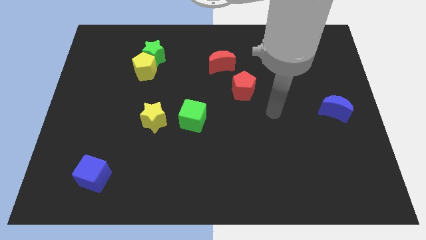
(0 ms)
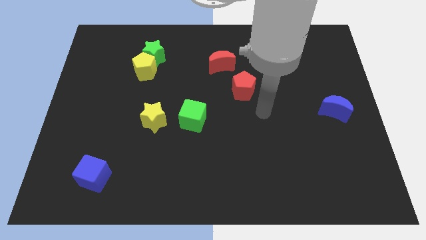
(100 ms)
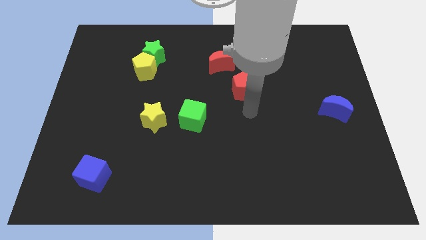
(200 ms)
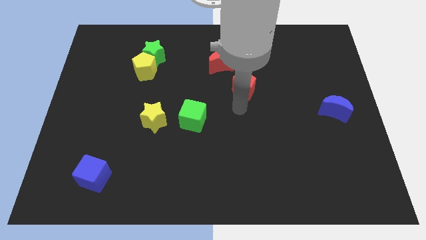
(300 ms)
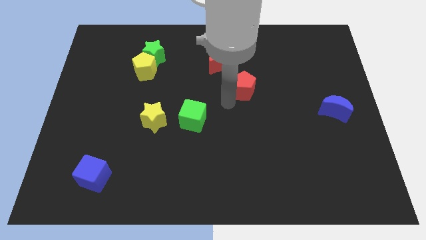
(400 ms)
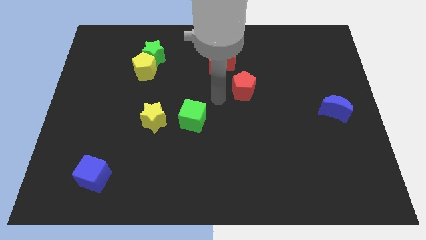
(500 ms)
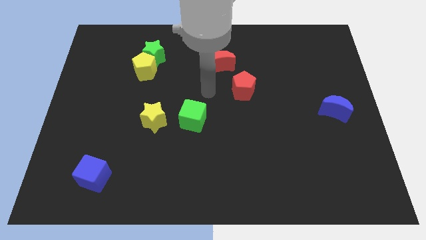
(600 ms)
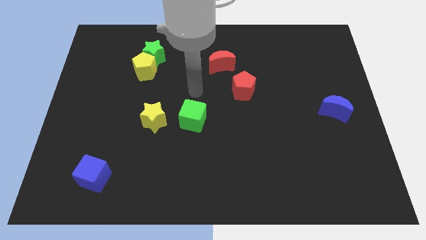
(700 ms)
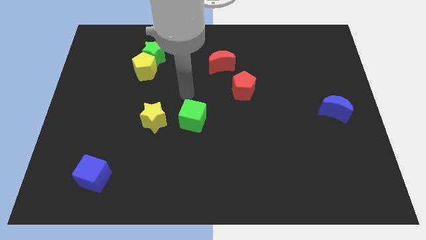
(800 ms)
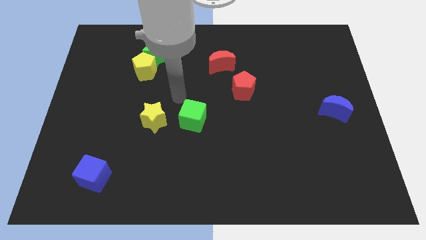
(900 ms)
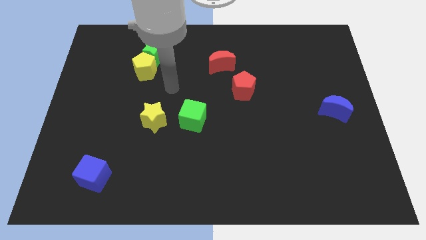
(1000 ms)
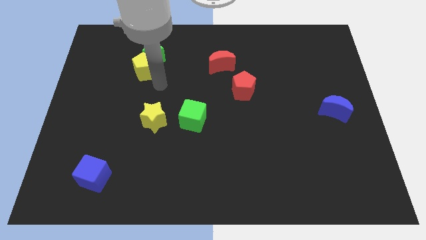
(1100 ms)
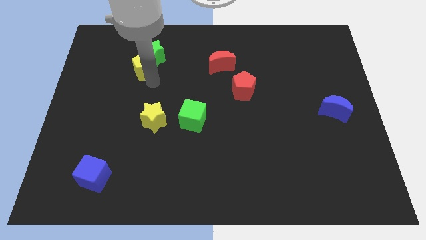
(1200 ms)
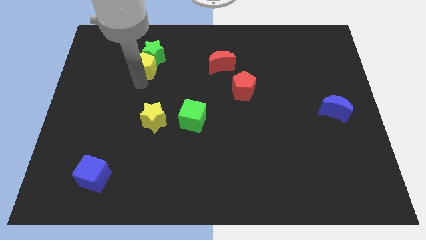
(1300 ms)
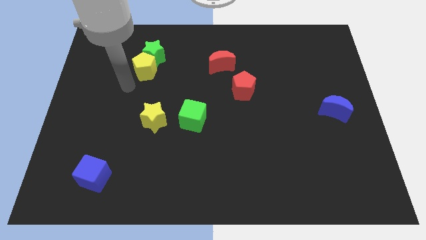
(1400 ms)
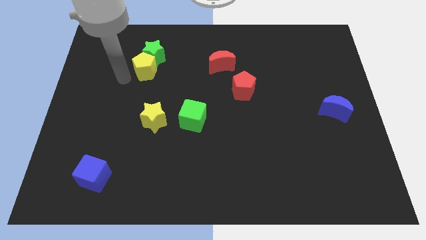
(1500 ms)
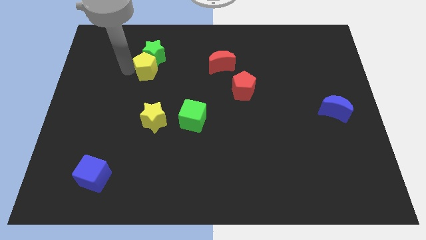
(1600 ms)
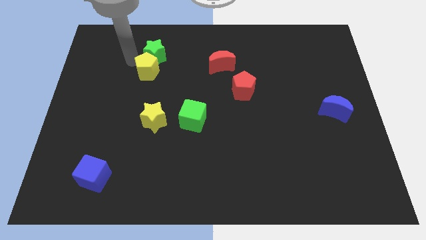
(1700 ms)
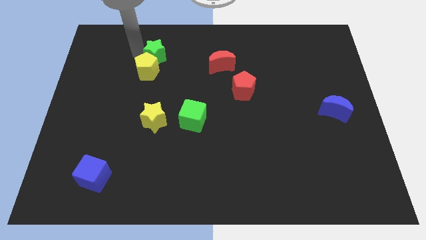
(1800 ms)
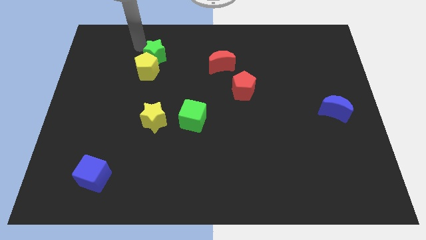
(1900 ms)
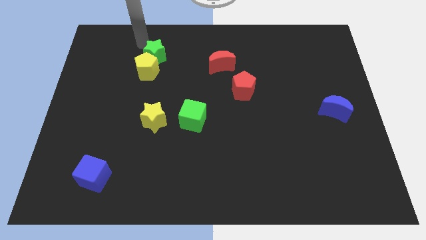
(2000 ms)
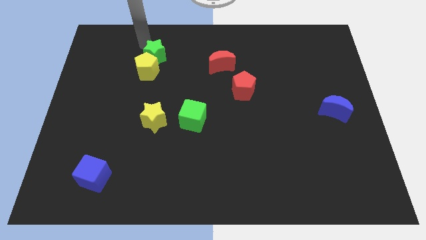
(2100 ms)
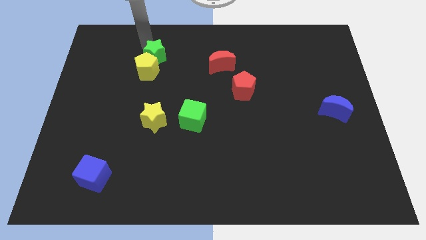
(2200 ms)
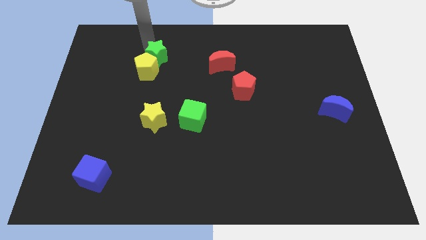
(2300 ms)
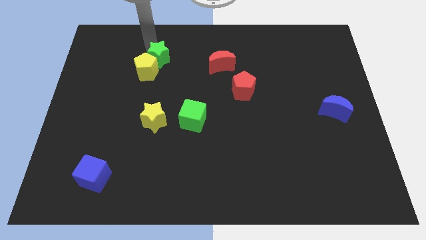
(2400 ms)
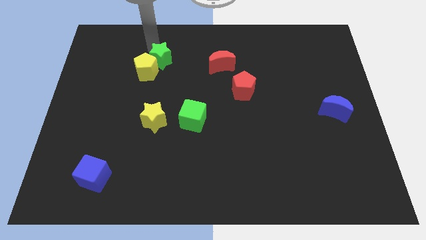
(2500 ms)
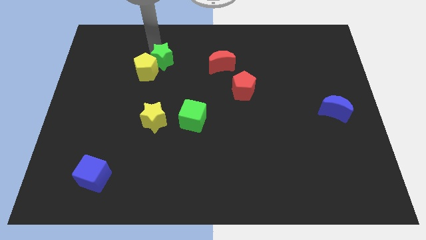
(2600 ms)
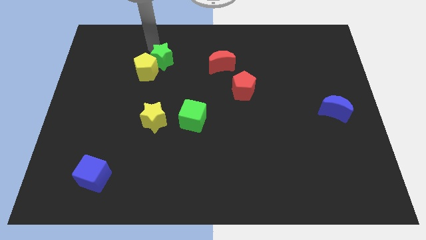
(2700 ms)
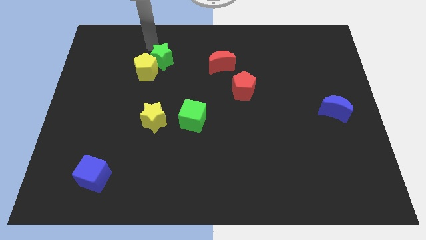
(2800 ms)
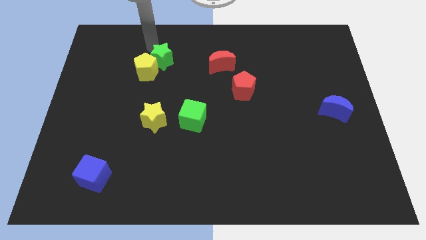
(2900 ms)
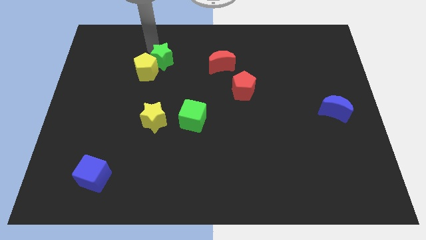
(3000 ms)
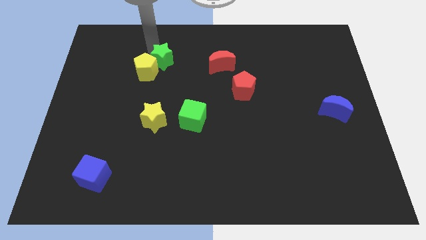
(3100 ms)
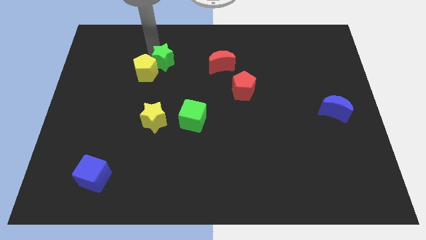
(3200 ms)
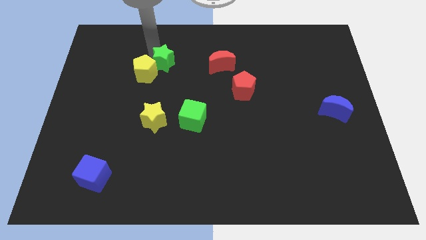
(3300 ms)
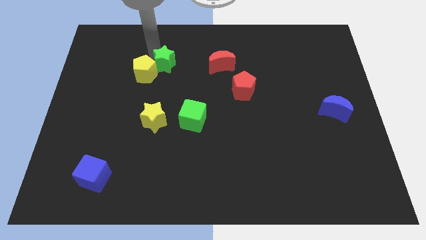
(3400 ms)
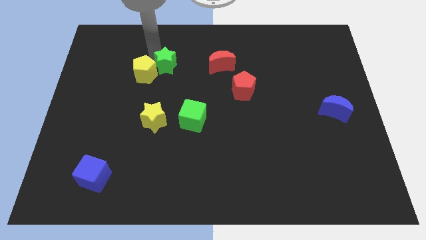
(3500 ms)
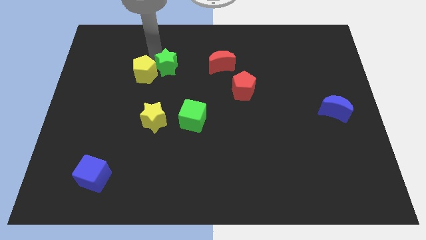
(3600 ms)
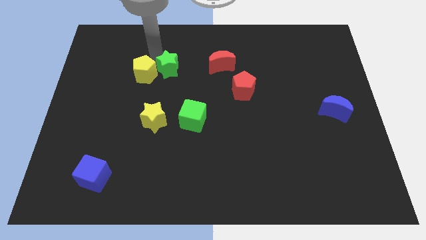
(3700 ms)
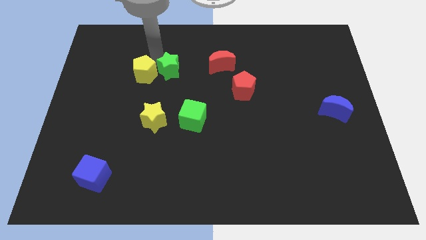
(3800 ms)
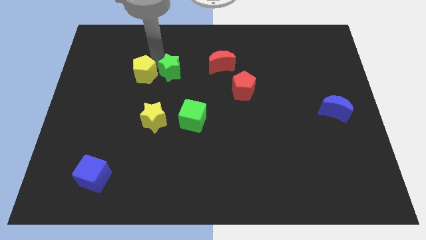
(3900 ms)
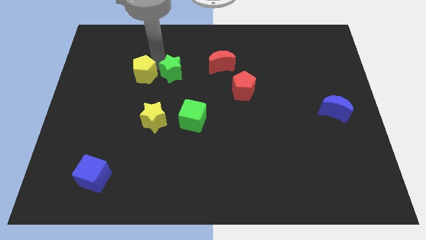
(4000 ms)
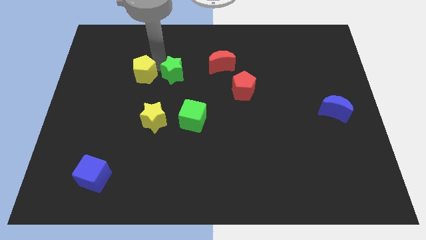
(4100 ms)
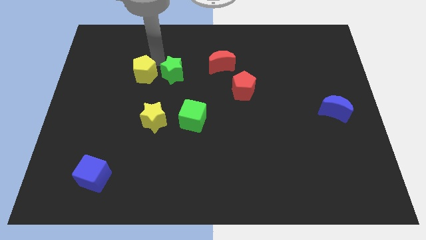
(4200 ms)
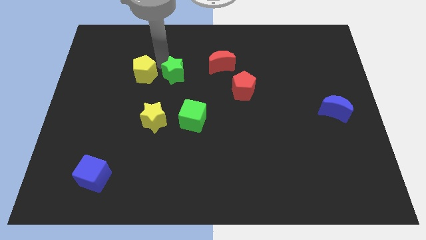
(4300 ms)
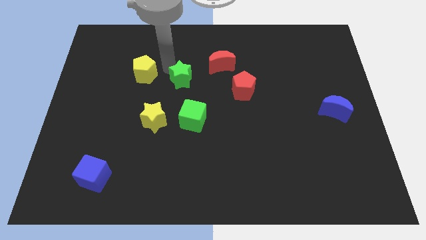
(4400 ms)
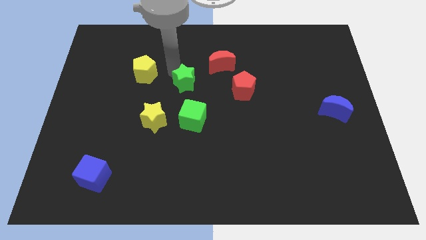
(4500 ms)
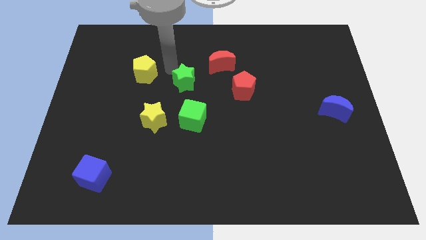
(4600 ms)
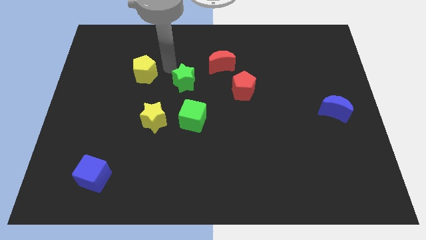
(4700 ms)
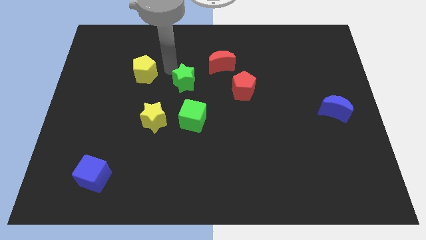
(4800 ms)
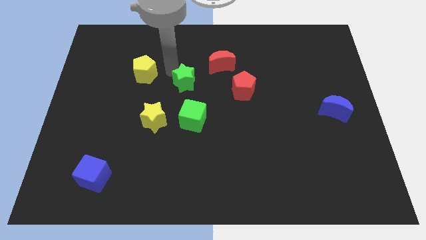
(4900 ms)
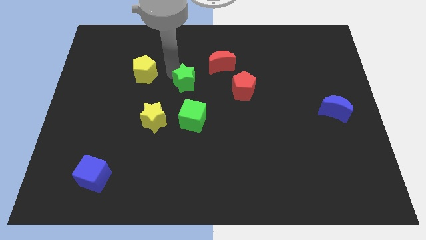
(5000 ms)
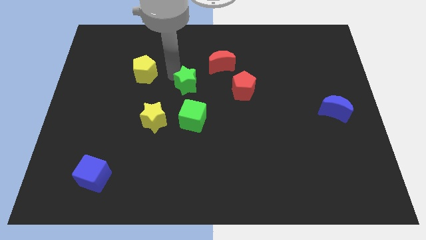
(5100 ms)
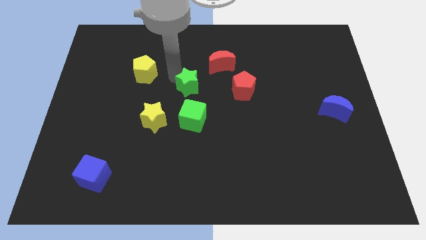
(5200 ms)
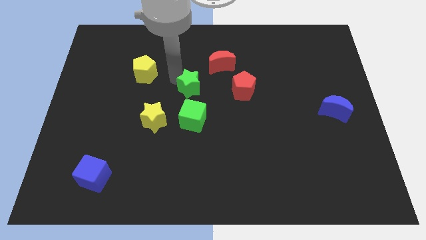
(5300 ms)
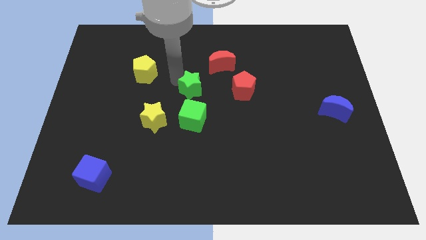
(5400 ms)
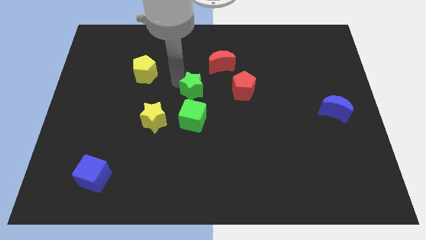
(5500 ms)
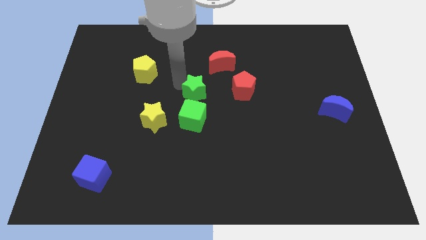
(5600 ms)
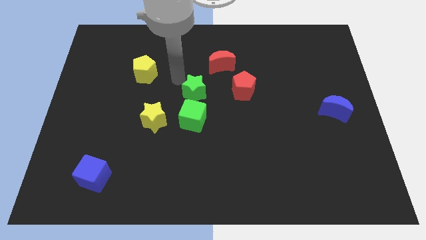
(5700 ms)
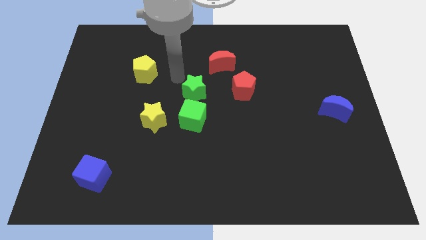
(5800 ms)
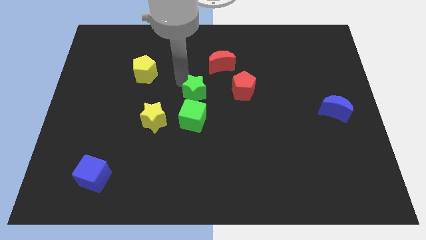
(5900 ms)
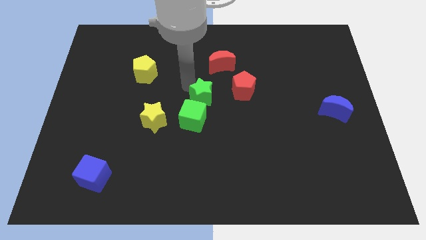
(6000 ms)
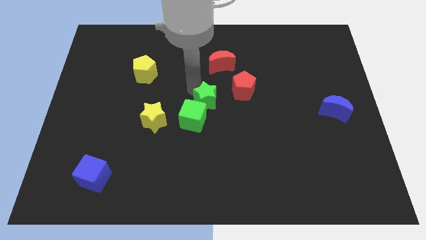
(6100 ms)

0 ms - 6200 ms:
slide the green star downwards and then to the right

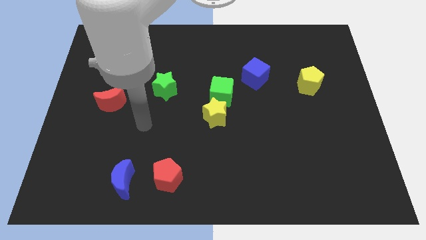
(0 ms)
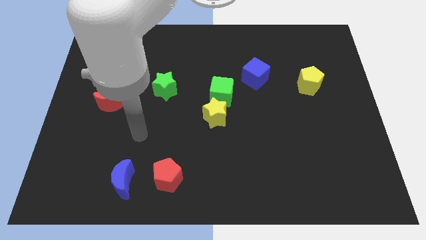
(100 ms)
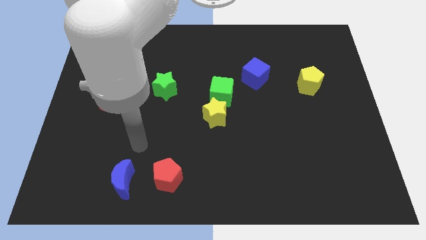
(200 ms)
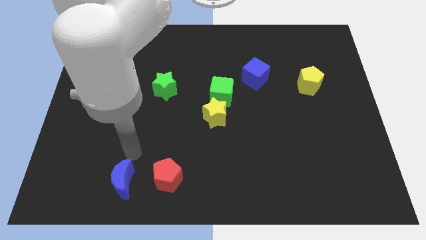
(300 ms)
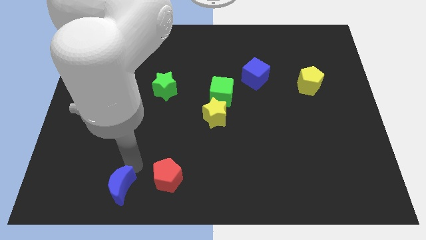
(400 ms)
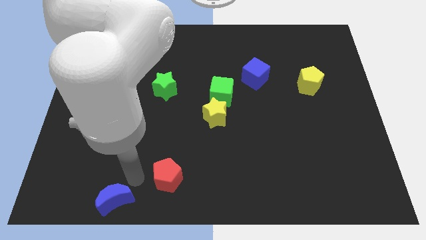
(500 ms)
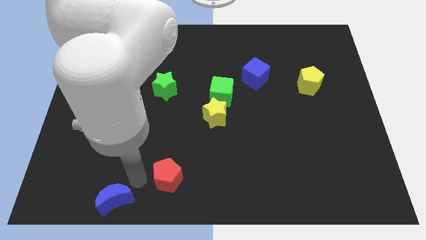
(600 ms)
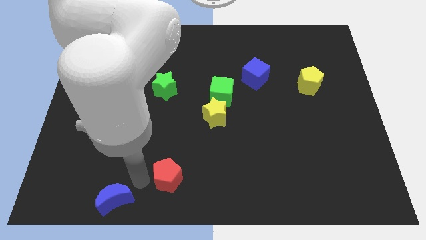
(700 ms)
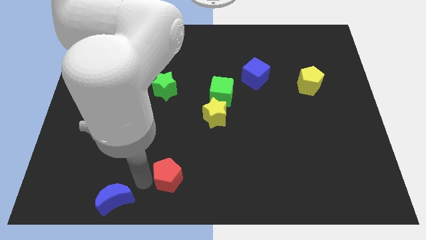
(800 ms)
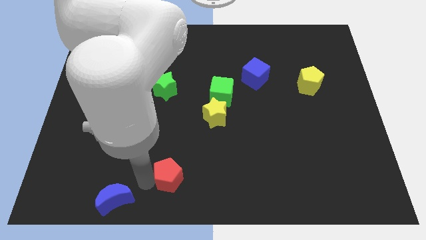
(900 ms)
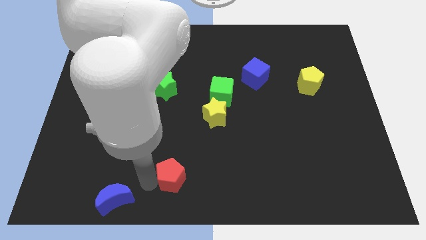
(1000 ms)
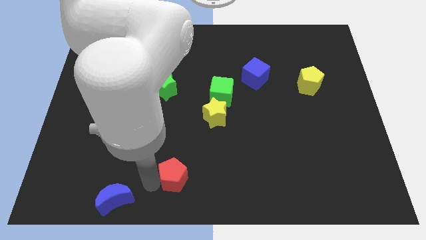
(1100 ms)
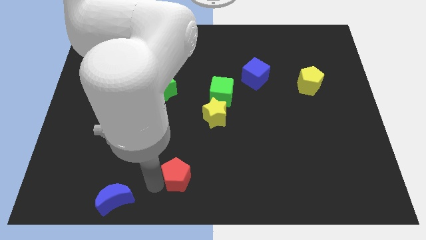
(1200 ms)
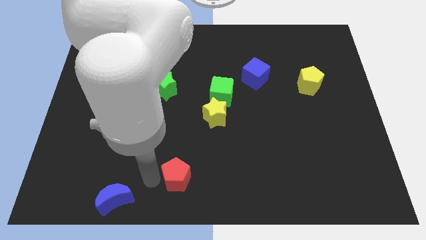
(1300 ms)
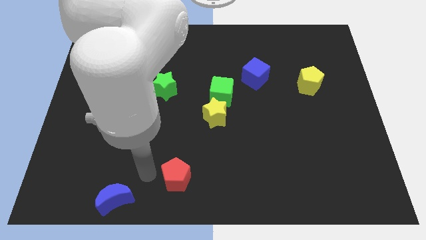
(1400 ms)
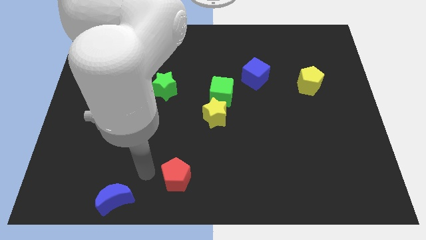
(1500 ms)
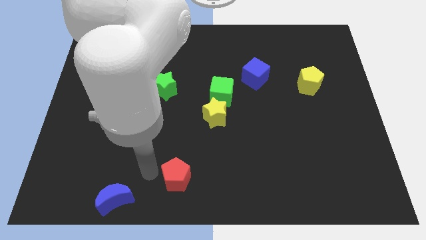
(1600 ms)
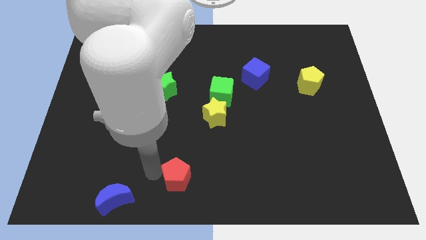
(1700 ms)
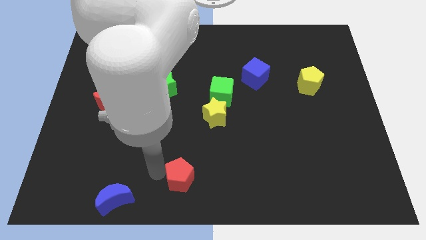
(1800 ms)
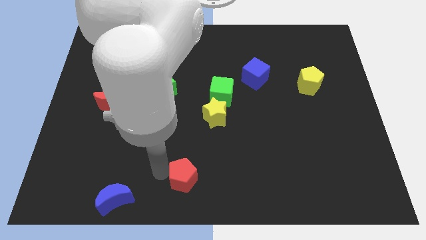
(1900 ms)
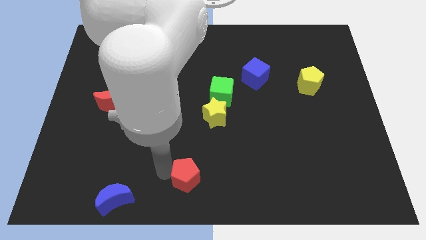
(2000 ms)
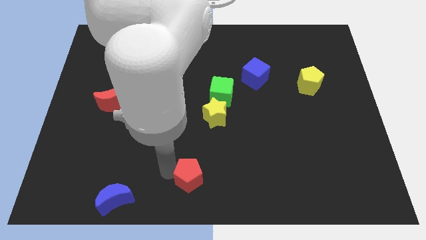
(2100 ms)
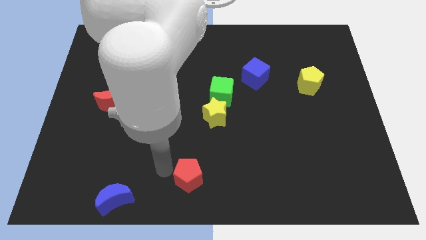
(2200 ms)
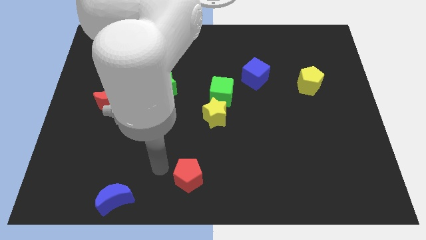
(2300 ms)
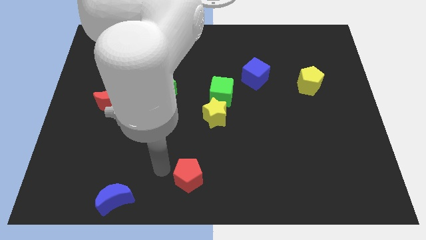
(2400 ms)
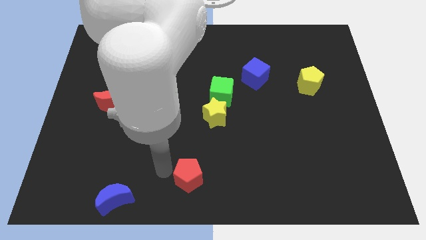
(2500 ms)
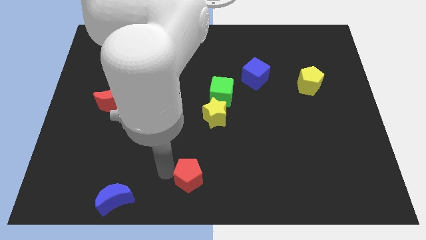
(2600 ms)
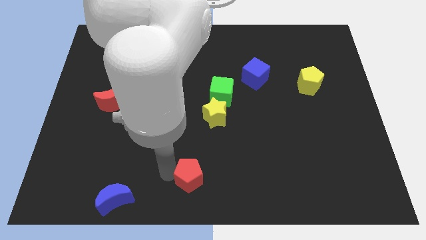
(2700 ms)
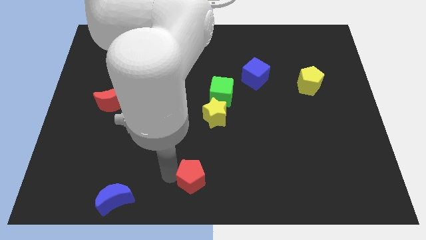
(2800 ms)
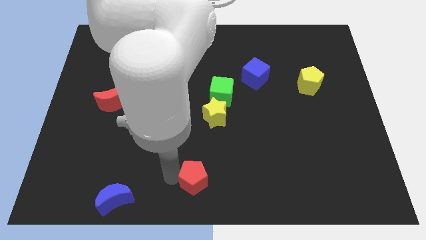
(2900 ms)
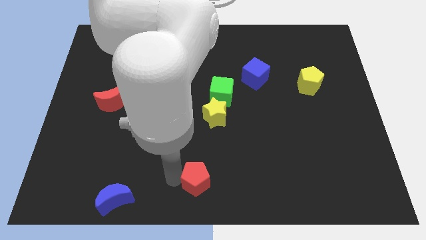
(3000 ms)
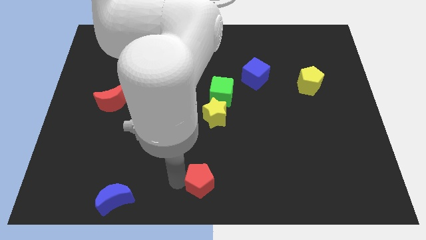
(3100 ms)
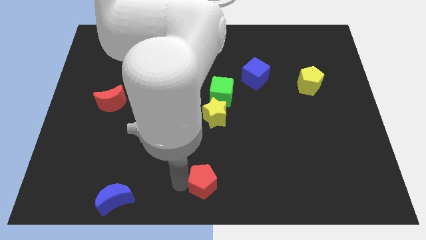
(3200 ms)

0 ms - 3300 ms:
slide the red pentagon right a little bit
